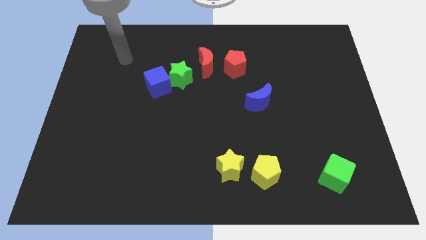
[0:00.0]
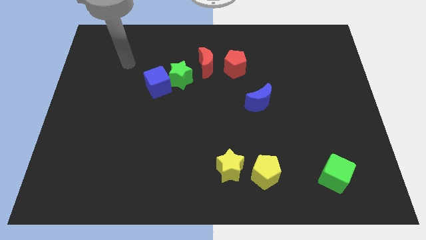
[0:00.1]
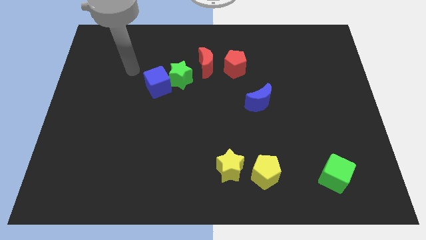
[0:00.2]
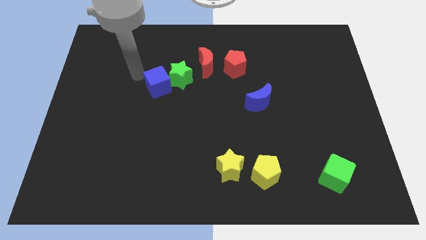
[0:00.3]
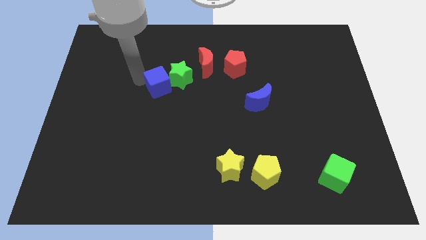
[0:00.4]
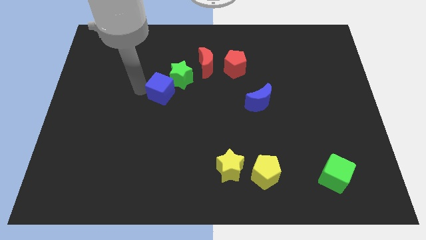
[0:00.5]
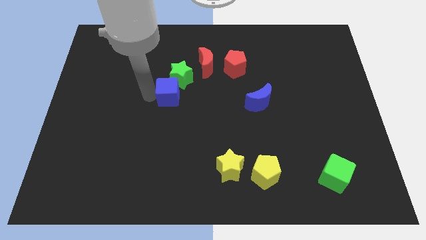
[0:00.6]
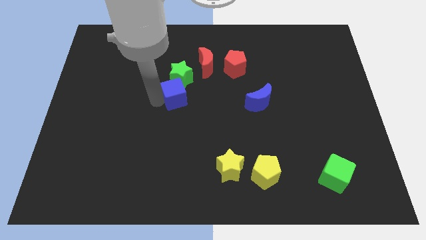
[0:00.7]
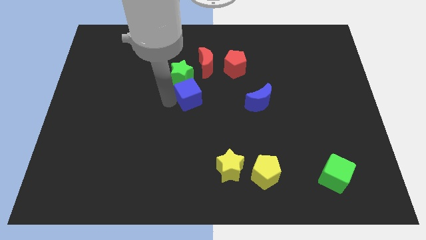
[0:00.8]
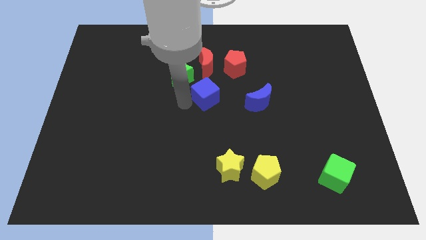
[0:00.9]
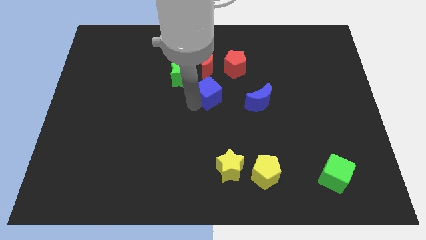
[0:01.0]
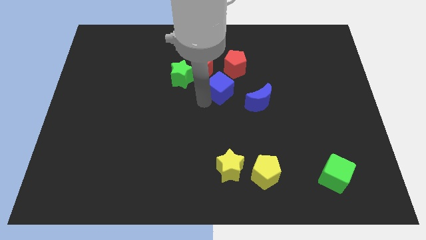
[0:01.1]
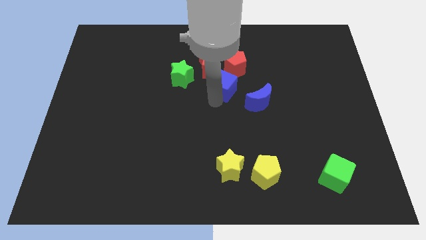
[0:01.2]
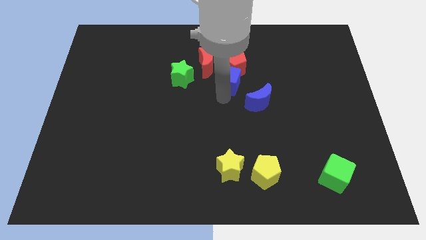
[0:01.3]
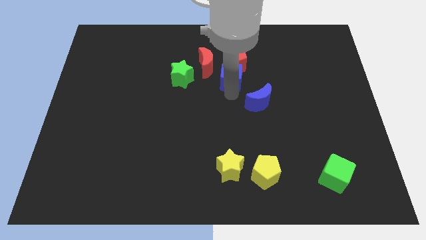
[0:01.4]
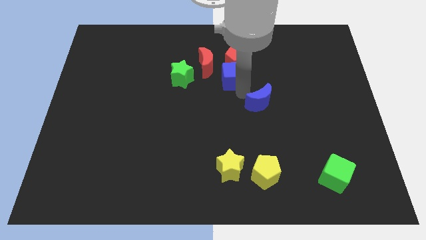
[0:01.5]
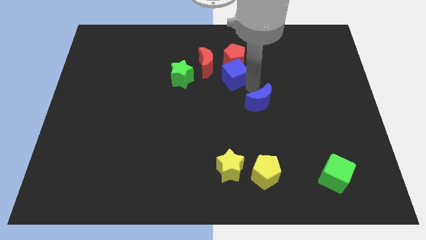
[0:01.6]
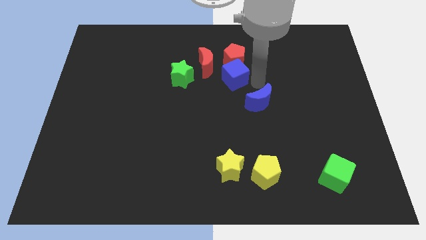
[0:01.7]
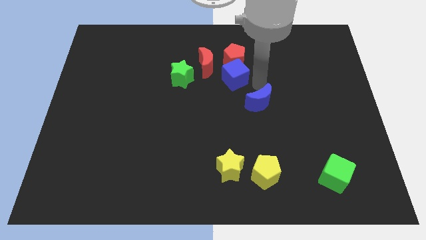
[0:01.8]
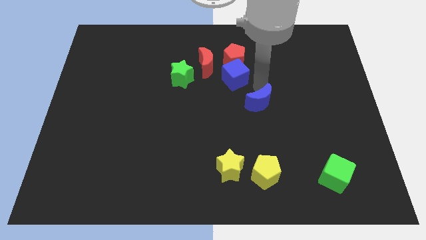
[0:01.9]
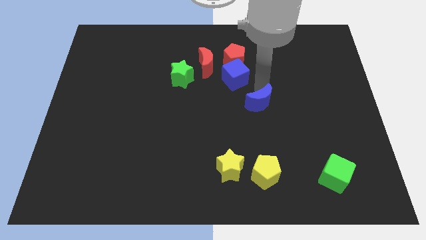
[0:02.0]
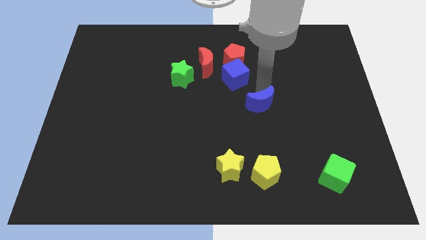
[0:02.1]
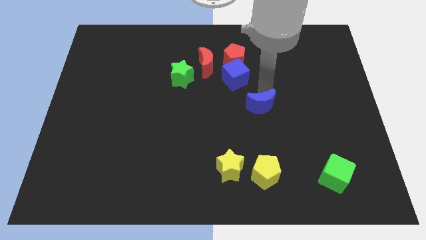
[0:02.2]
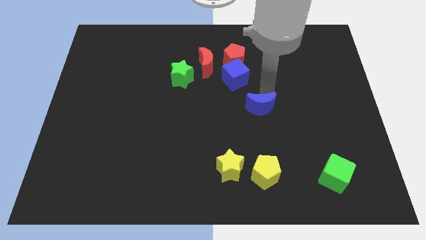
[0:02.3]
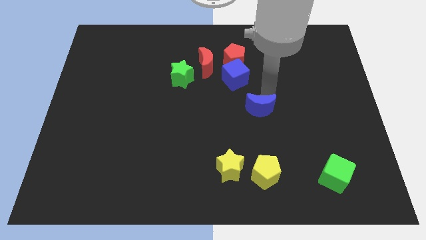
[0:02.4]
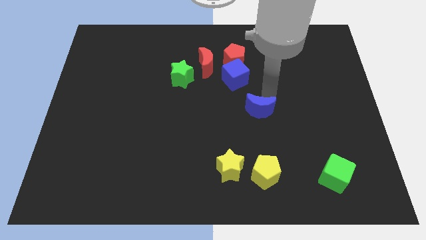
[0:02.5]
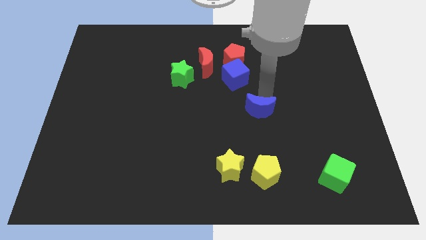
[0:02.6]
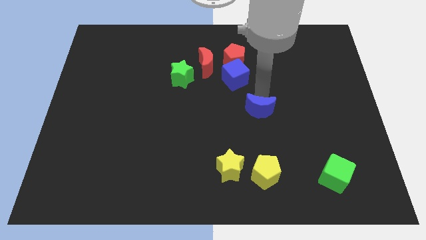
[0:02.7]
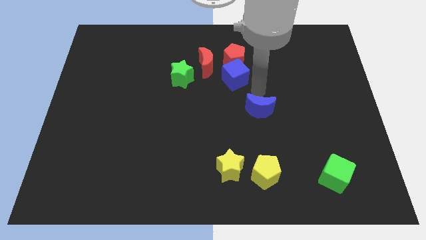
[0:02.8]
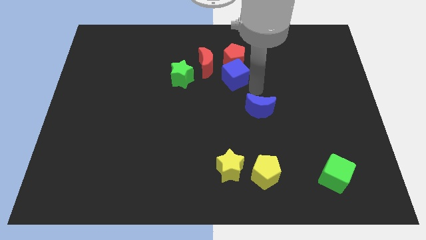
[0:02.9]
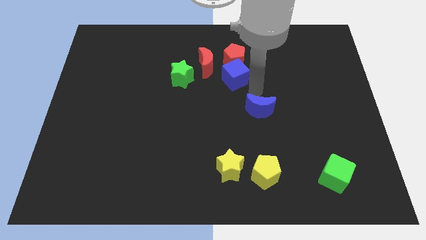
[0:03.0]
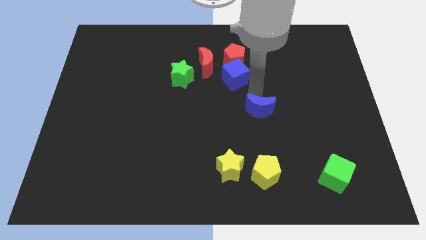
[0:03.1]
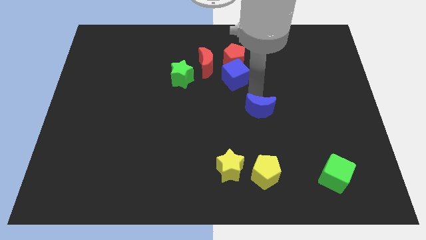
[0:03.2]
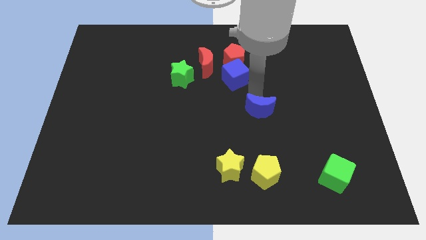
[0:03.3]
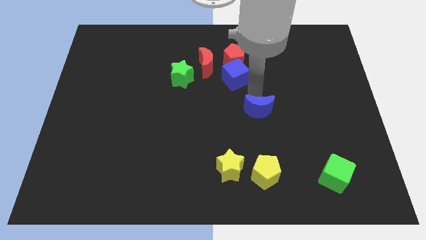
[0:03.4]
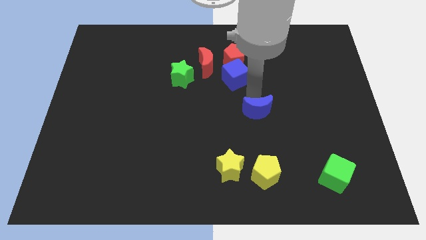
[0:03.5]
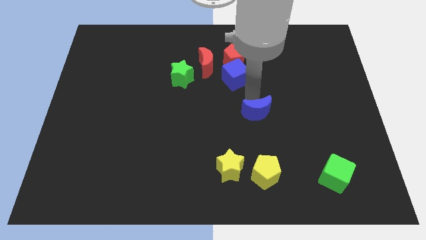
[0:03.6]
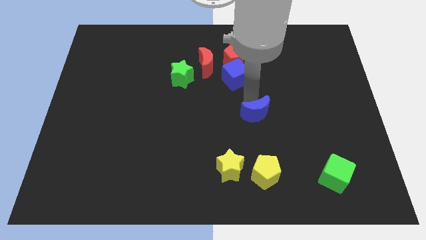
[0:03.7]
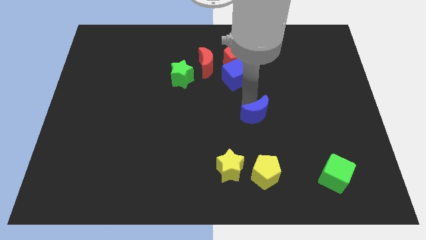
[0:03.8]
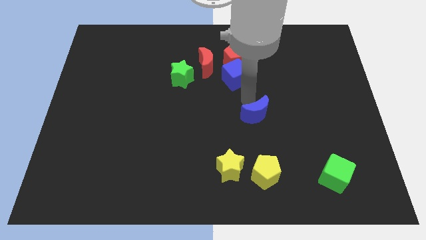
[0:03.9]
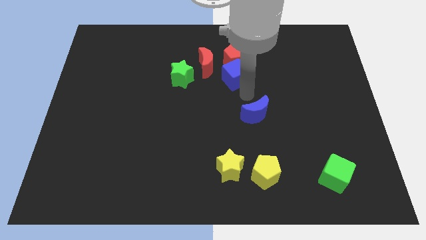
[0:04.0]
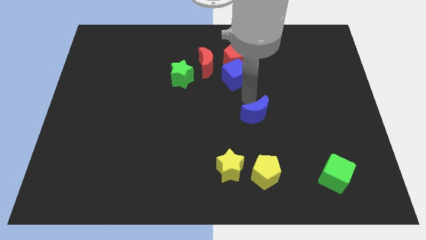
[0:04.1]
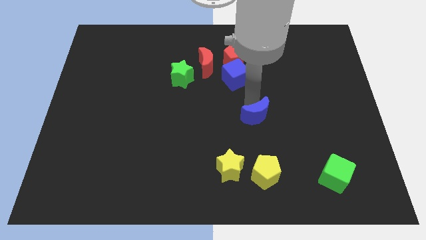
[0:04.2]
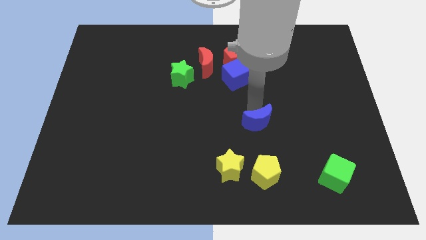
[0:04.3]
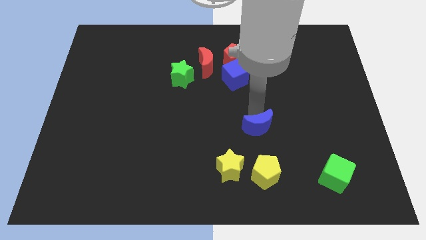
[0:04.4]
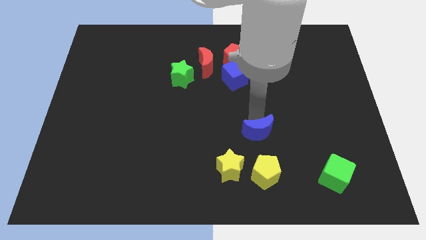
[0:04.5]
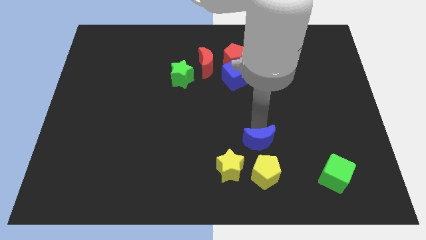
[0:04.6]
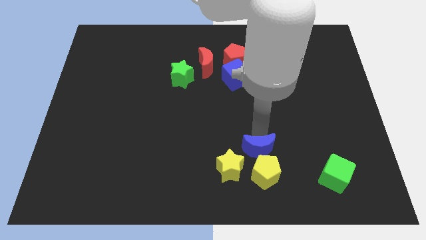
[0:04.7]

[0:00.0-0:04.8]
slide the blue moon close to the yellow pentagon

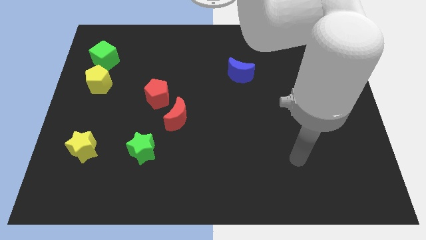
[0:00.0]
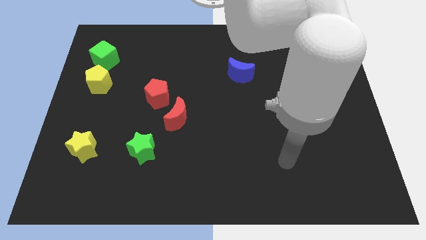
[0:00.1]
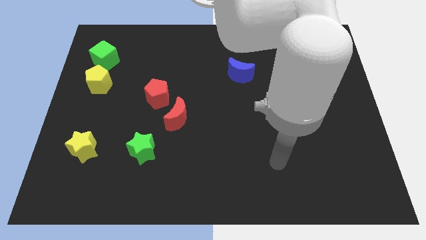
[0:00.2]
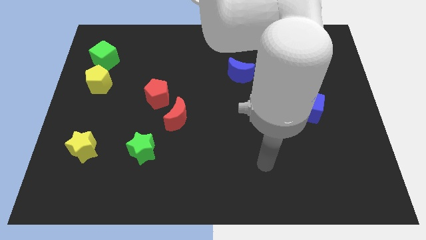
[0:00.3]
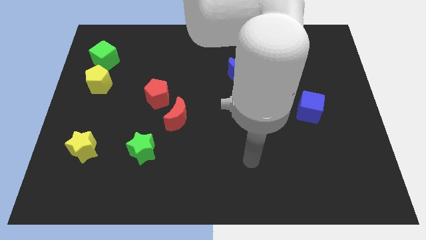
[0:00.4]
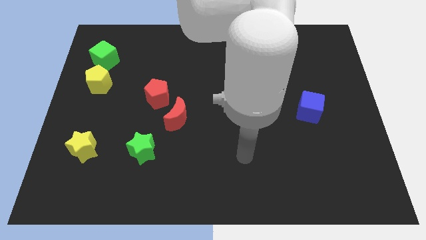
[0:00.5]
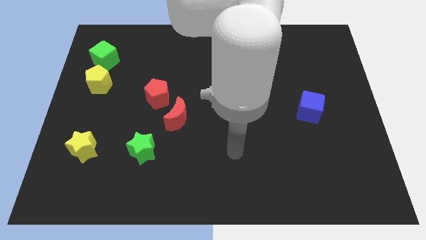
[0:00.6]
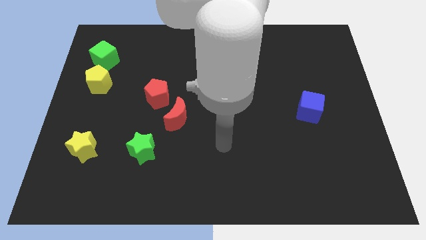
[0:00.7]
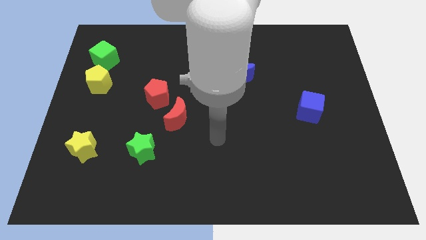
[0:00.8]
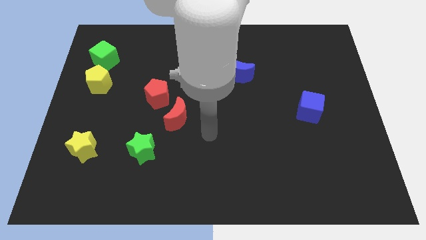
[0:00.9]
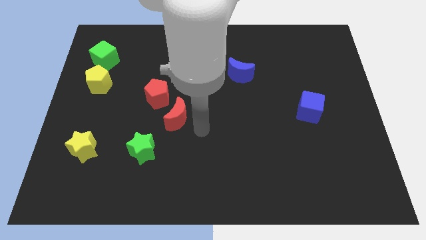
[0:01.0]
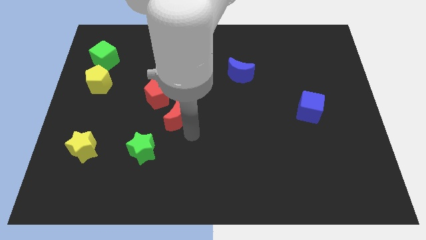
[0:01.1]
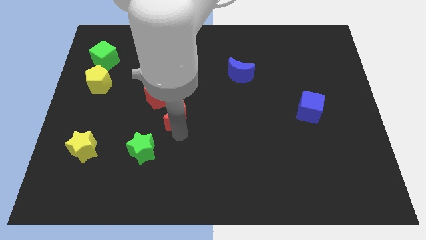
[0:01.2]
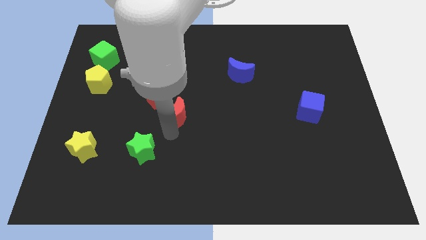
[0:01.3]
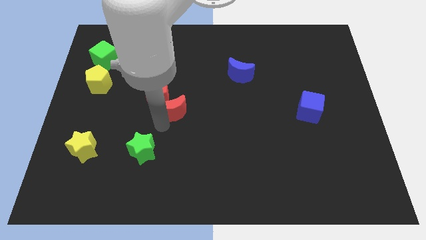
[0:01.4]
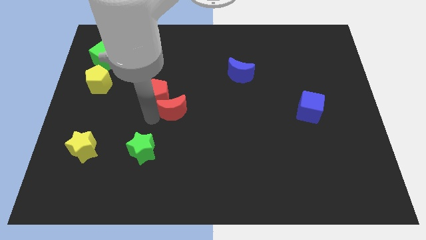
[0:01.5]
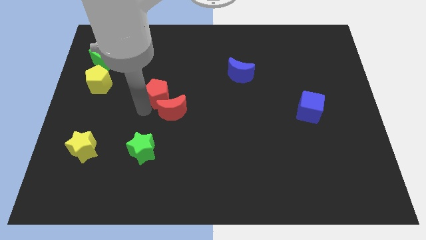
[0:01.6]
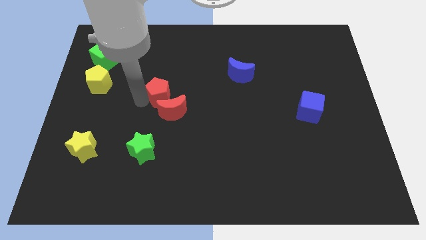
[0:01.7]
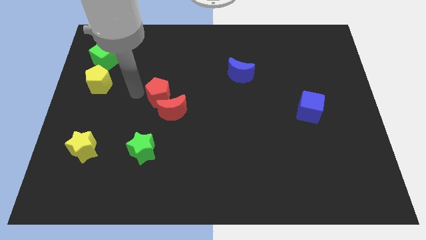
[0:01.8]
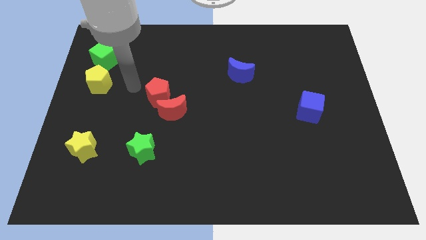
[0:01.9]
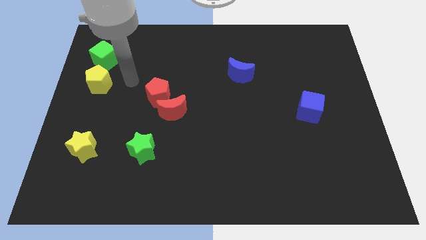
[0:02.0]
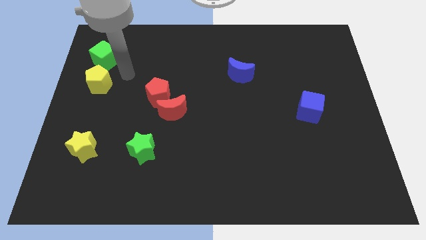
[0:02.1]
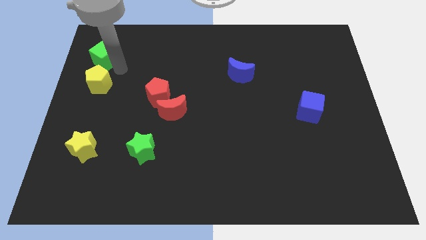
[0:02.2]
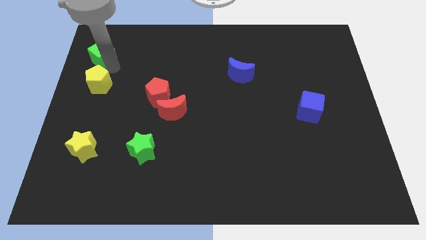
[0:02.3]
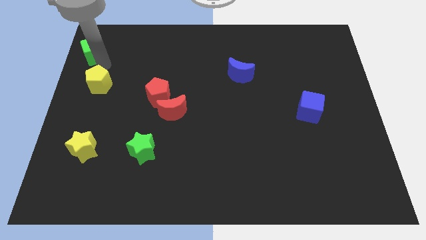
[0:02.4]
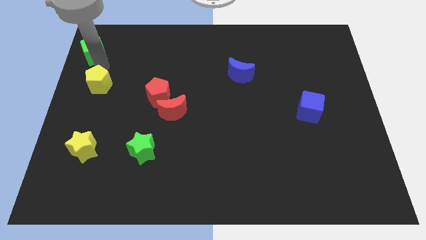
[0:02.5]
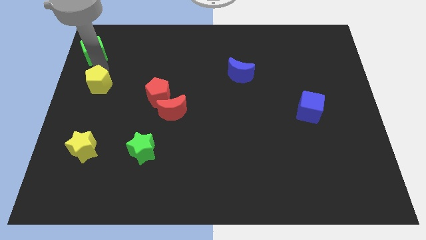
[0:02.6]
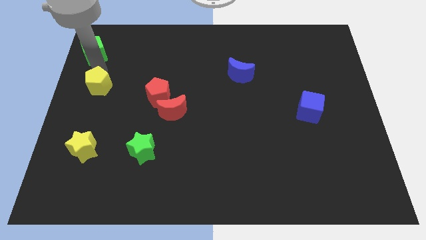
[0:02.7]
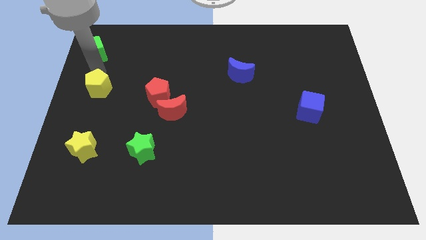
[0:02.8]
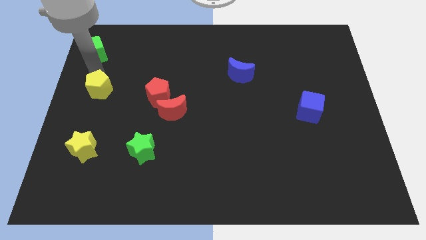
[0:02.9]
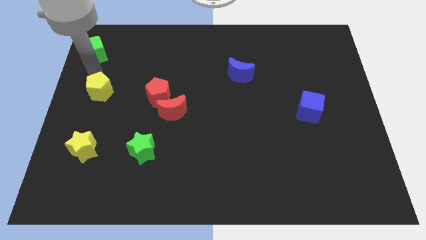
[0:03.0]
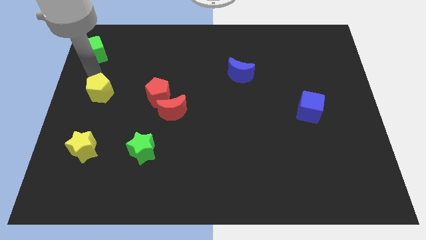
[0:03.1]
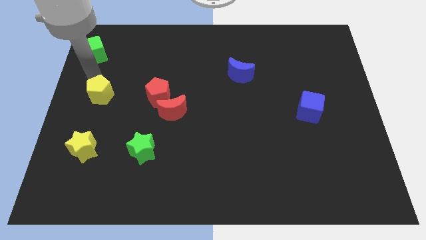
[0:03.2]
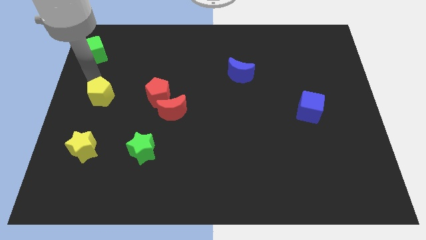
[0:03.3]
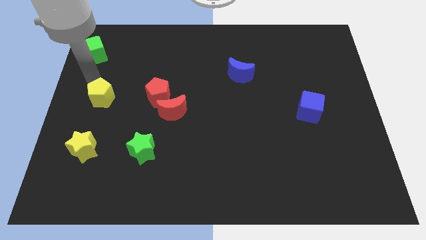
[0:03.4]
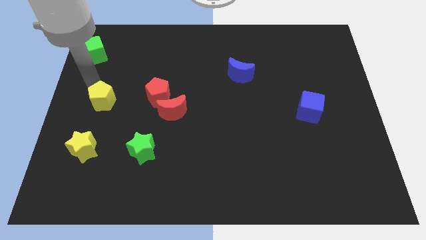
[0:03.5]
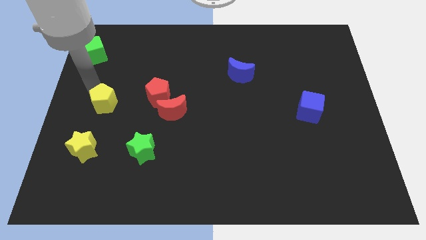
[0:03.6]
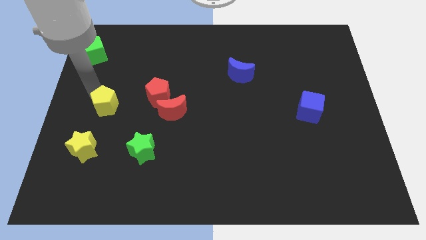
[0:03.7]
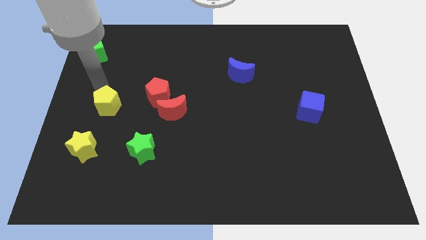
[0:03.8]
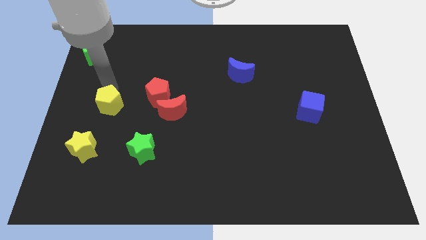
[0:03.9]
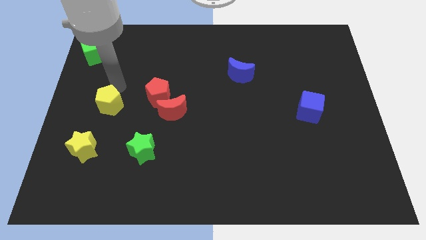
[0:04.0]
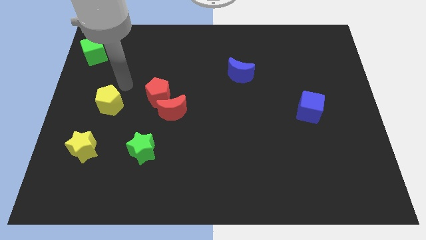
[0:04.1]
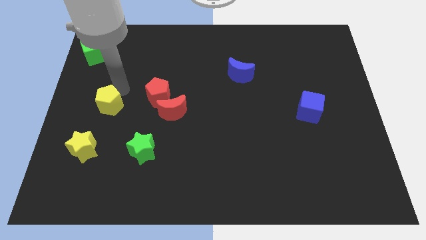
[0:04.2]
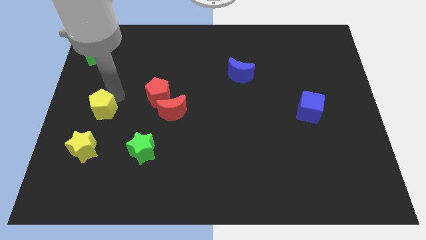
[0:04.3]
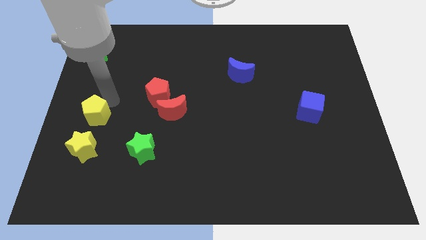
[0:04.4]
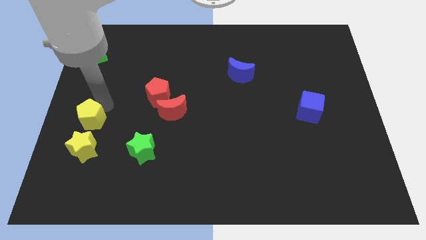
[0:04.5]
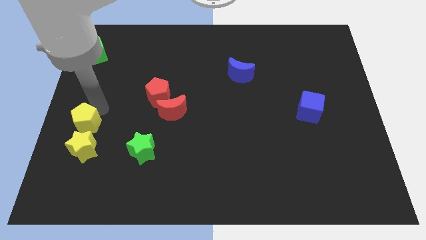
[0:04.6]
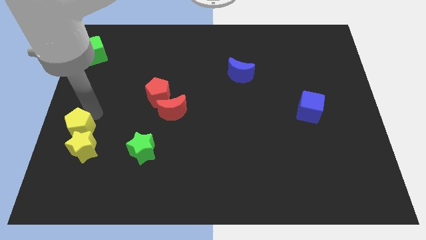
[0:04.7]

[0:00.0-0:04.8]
push the yellow pentagon towards the yellow star
